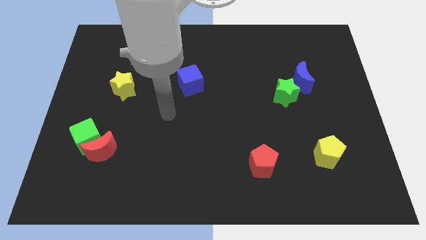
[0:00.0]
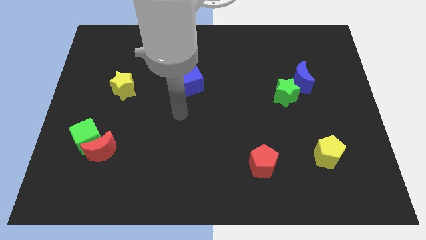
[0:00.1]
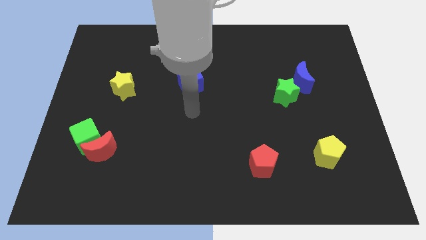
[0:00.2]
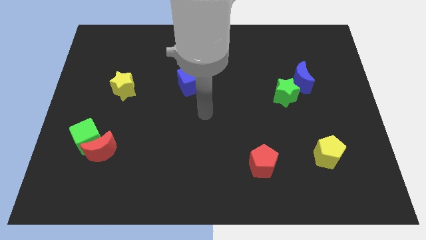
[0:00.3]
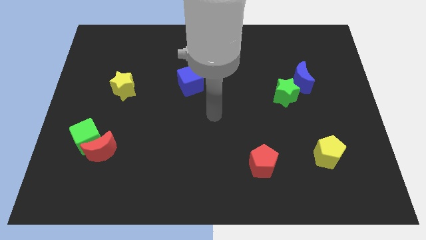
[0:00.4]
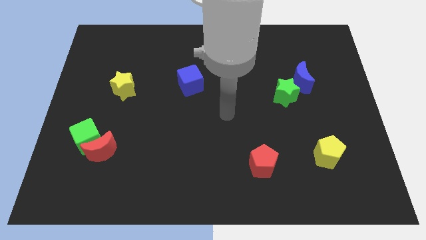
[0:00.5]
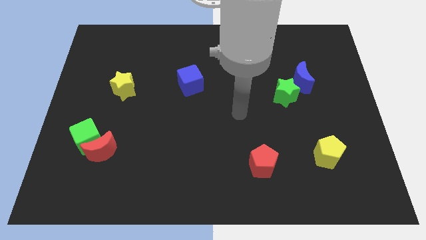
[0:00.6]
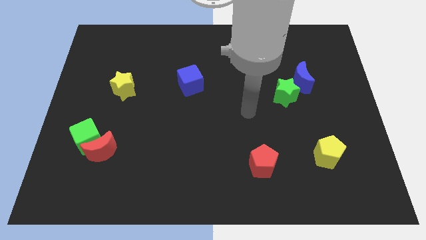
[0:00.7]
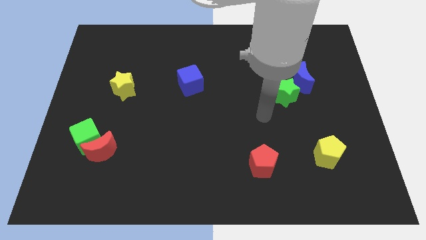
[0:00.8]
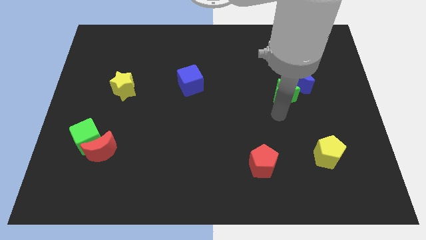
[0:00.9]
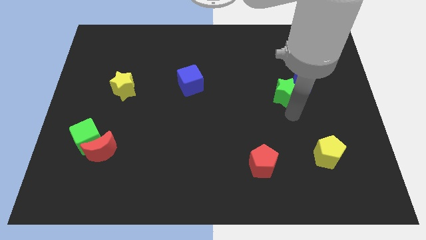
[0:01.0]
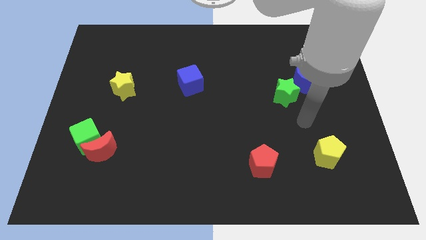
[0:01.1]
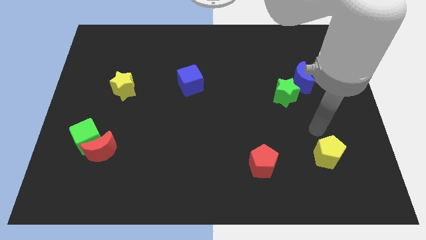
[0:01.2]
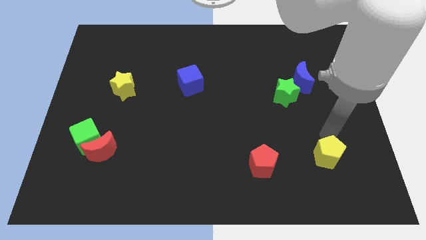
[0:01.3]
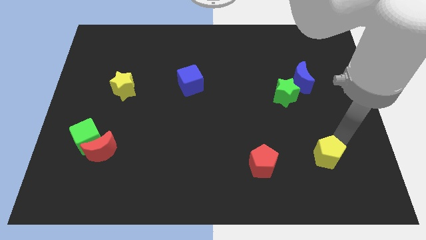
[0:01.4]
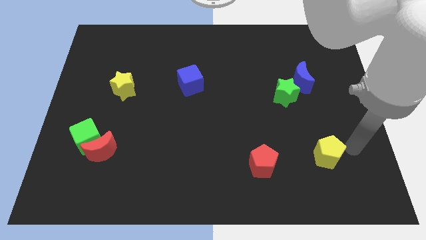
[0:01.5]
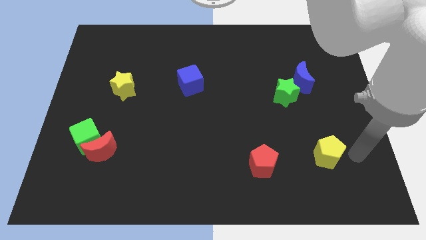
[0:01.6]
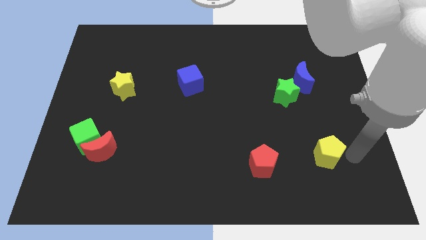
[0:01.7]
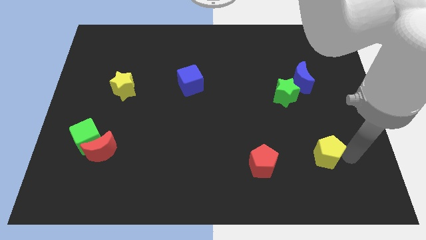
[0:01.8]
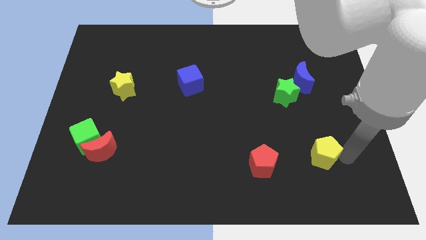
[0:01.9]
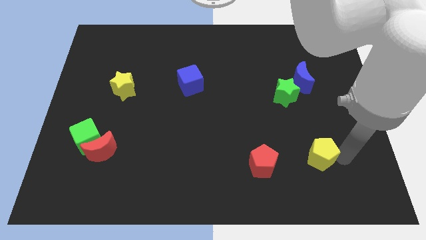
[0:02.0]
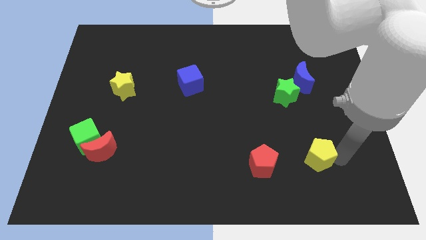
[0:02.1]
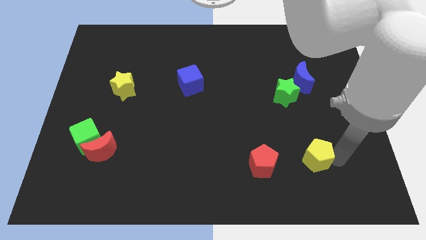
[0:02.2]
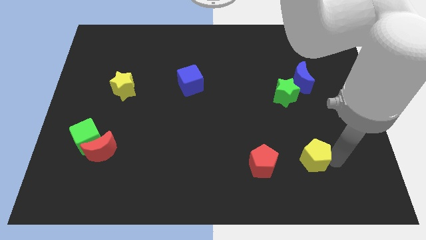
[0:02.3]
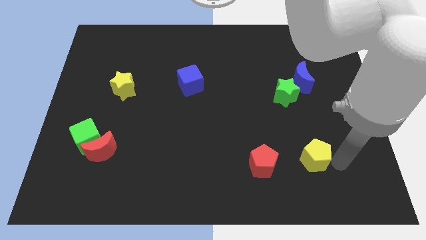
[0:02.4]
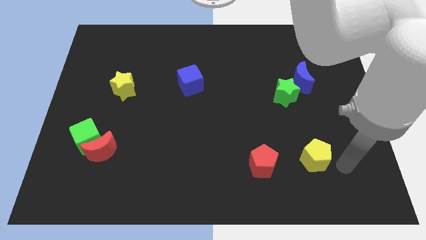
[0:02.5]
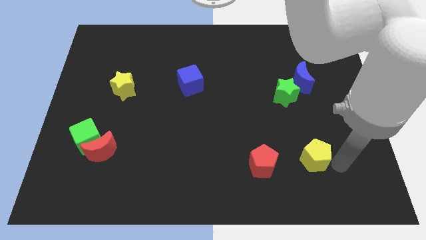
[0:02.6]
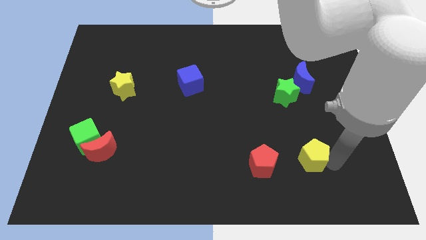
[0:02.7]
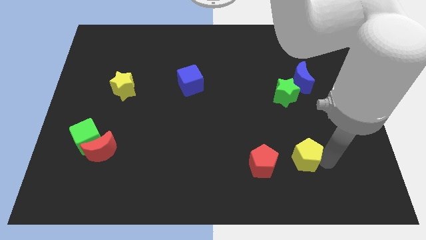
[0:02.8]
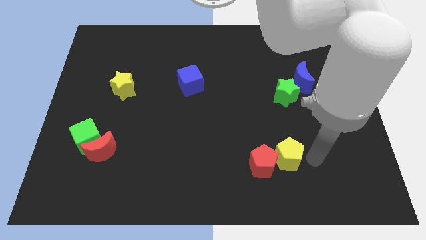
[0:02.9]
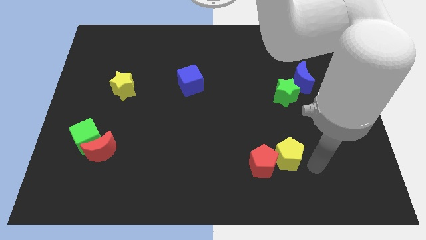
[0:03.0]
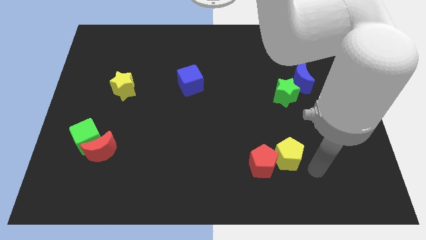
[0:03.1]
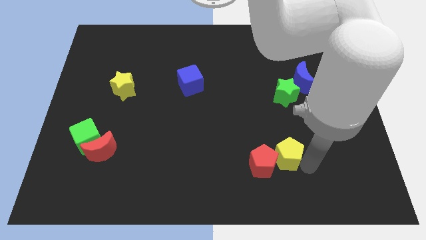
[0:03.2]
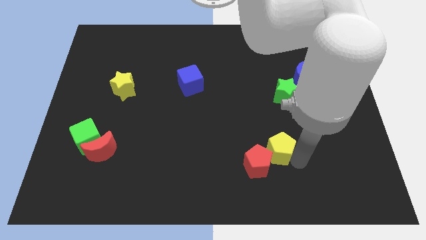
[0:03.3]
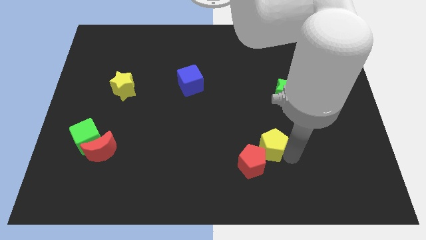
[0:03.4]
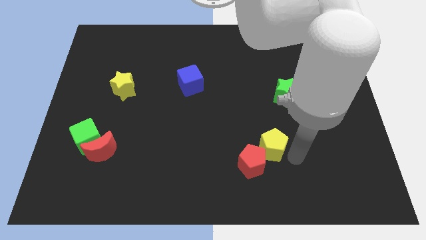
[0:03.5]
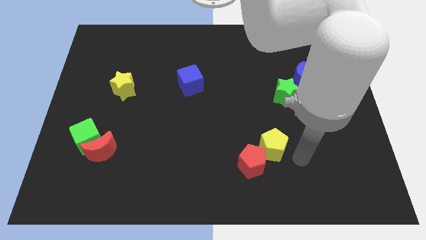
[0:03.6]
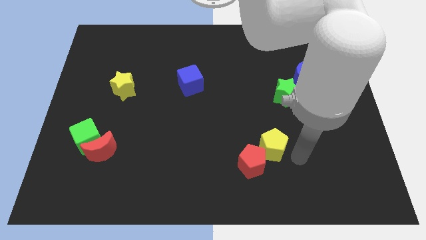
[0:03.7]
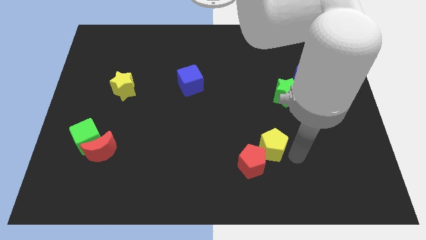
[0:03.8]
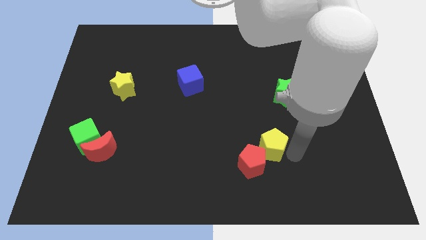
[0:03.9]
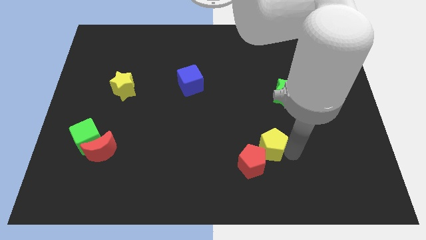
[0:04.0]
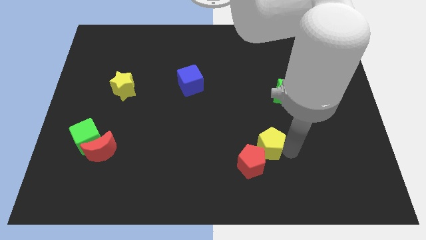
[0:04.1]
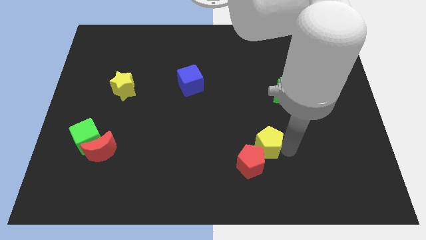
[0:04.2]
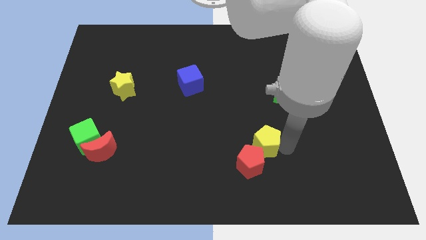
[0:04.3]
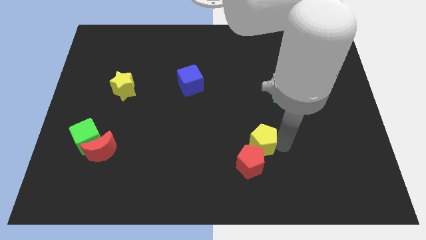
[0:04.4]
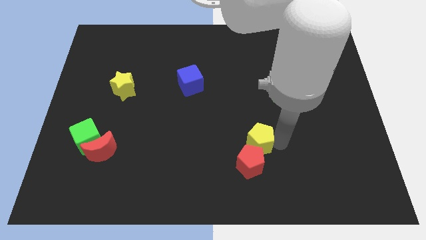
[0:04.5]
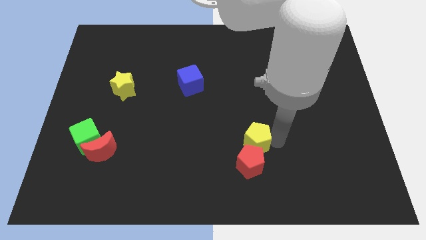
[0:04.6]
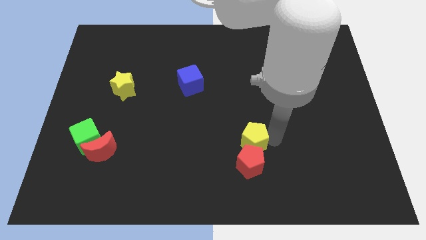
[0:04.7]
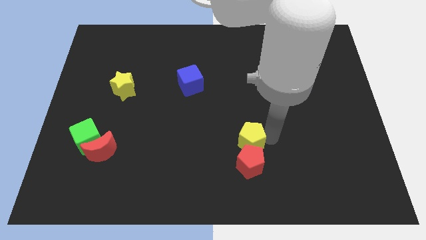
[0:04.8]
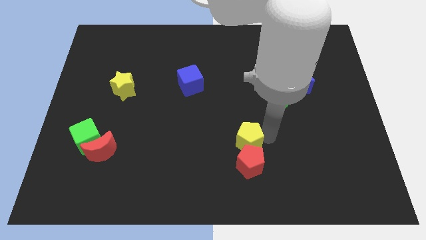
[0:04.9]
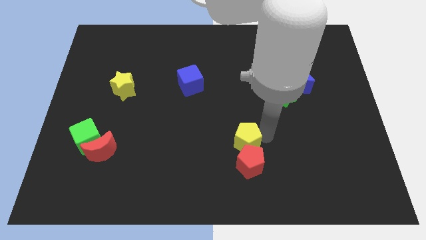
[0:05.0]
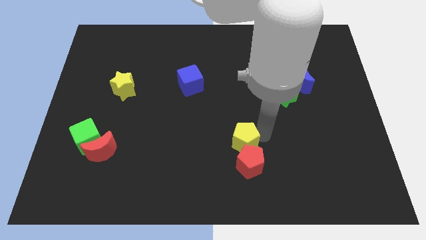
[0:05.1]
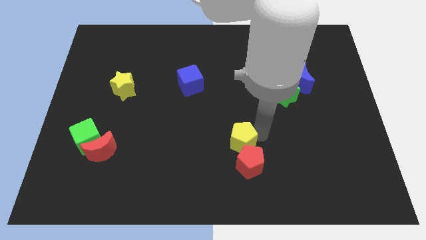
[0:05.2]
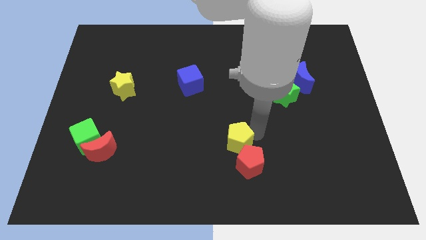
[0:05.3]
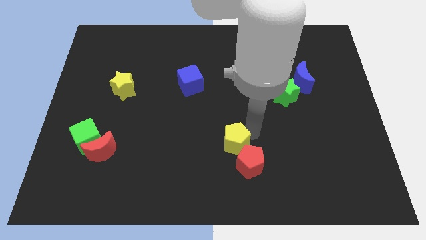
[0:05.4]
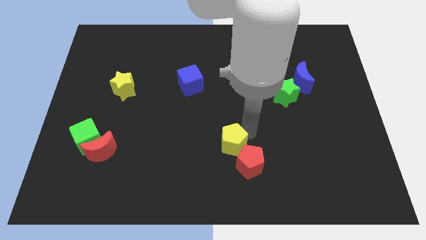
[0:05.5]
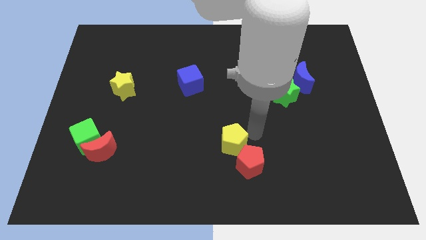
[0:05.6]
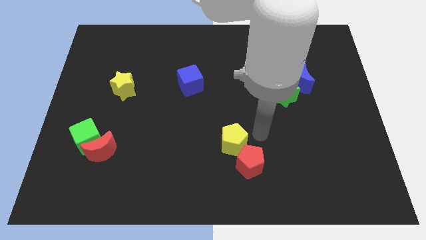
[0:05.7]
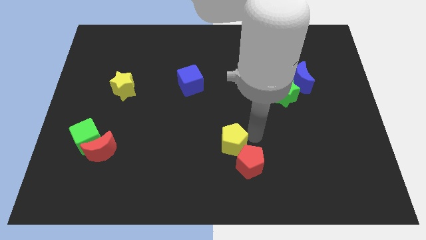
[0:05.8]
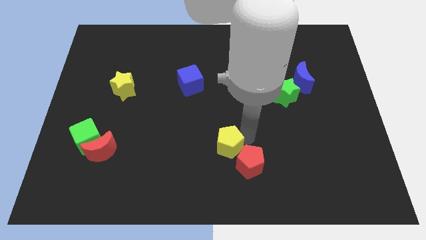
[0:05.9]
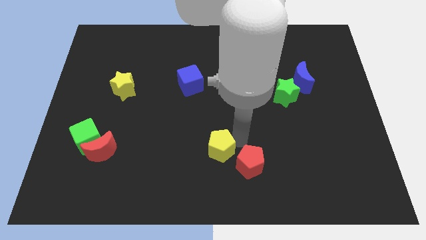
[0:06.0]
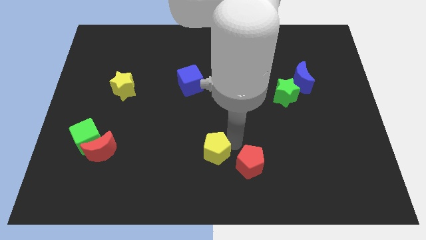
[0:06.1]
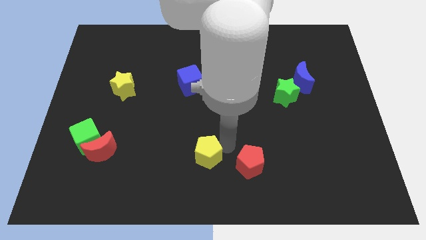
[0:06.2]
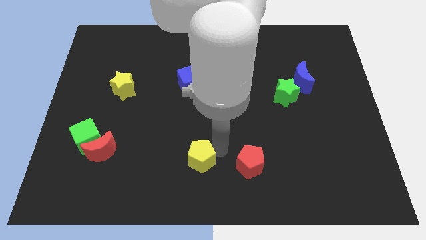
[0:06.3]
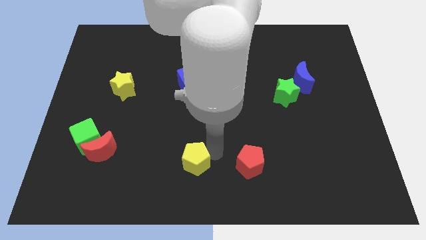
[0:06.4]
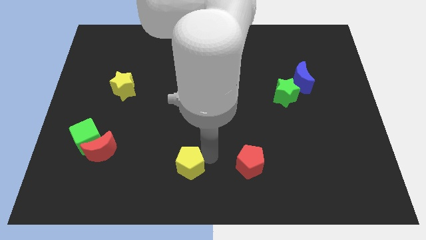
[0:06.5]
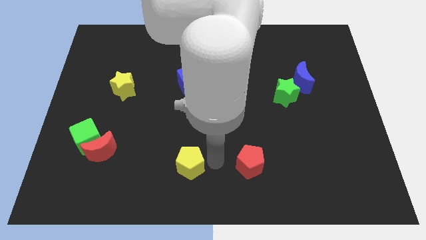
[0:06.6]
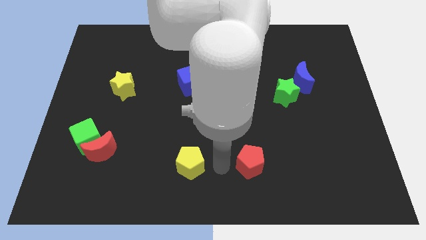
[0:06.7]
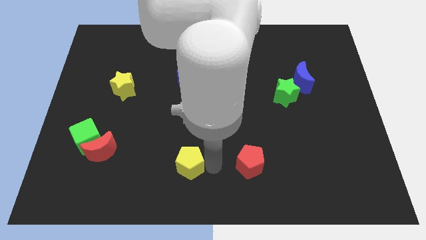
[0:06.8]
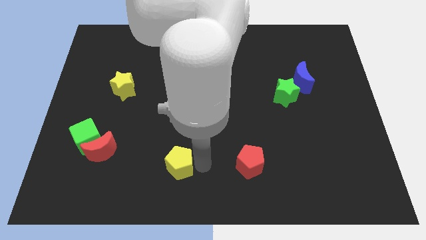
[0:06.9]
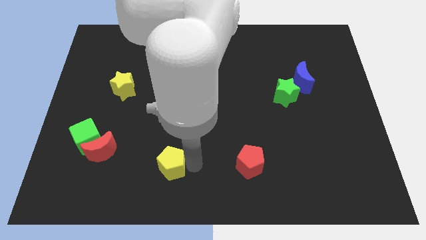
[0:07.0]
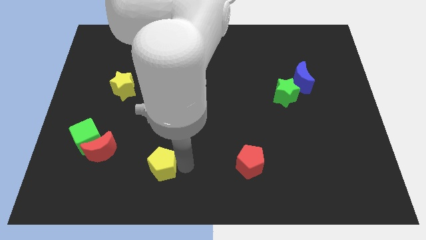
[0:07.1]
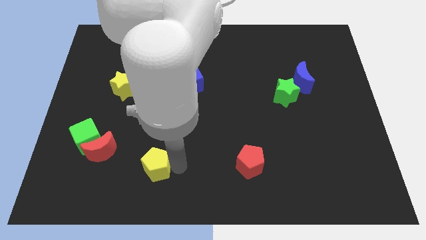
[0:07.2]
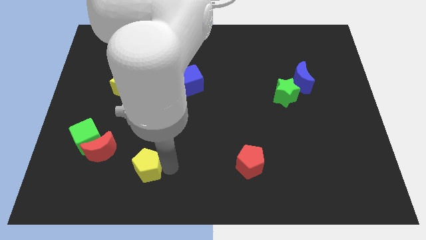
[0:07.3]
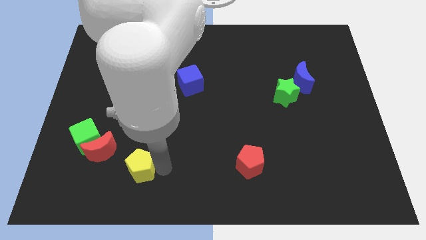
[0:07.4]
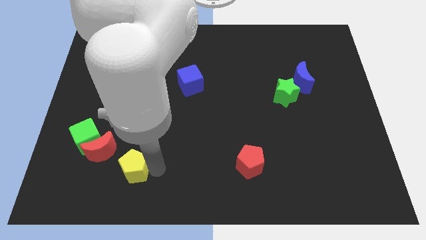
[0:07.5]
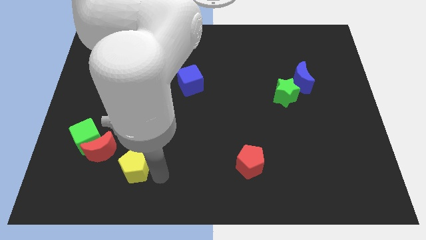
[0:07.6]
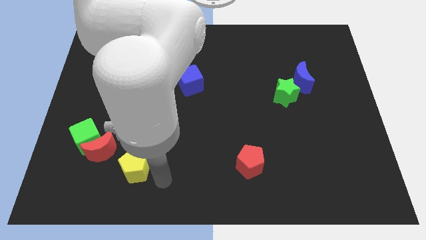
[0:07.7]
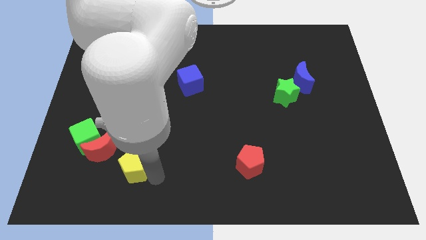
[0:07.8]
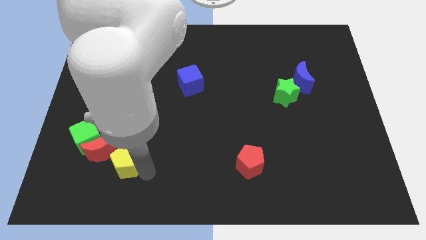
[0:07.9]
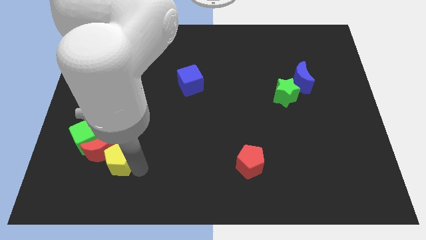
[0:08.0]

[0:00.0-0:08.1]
move the yellow pentagon next to the red moon
